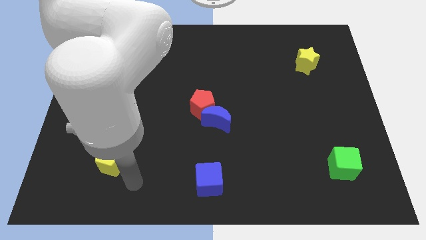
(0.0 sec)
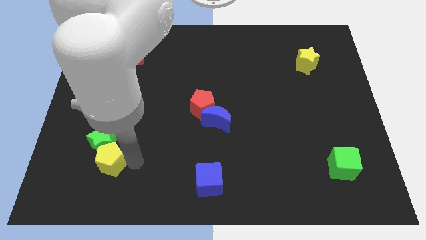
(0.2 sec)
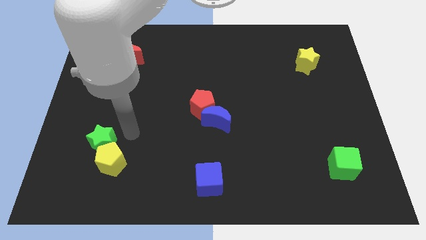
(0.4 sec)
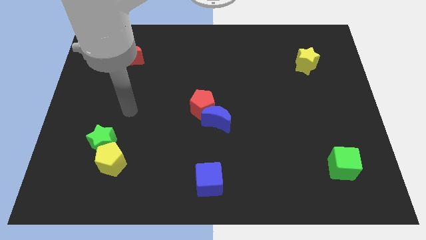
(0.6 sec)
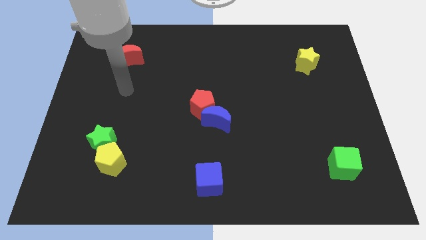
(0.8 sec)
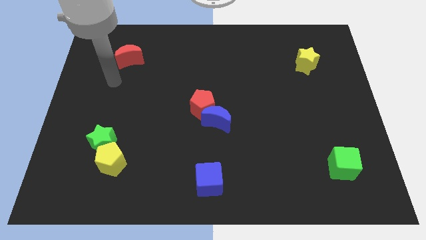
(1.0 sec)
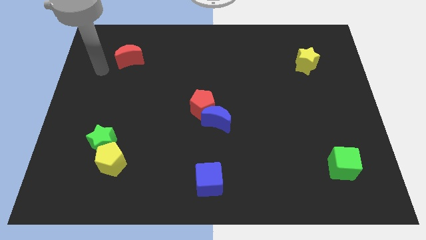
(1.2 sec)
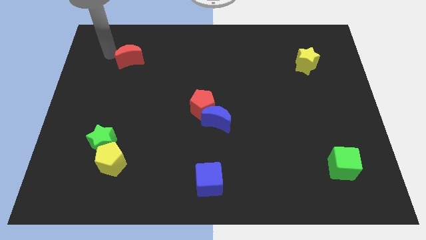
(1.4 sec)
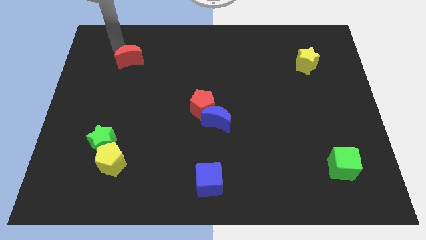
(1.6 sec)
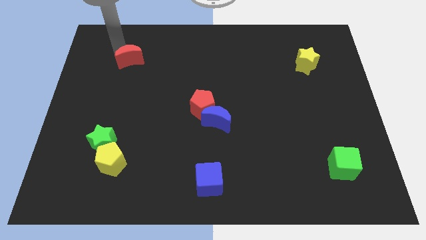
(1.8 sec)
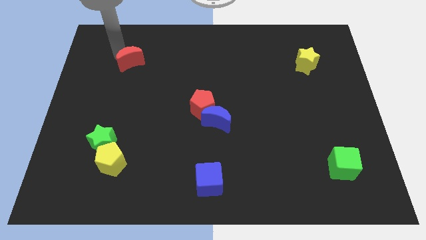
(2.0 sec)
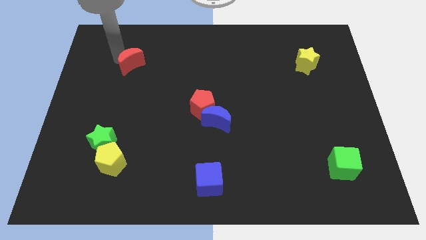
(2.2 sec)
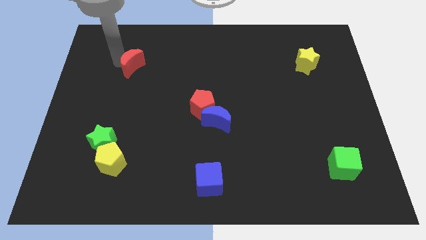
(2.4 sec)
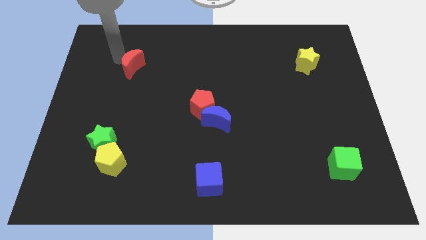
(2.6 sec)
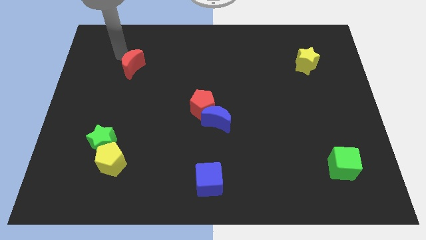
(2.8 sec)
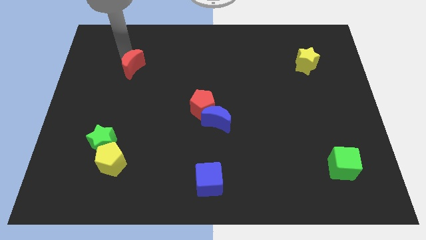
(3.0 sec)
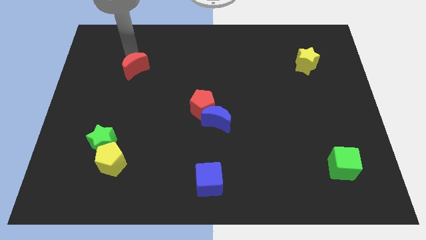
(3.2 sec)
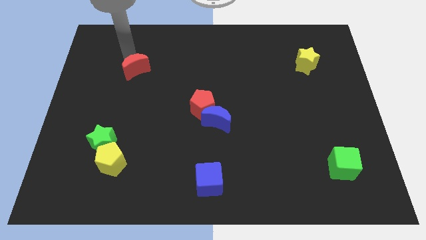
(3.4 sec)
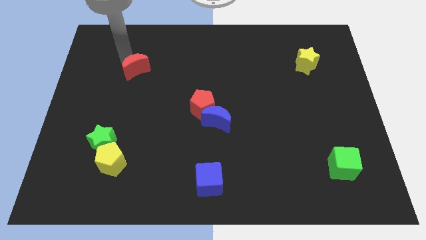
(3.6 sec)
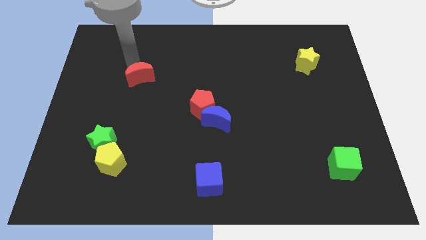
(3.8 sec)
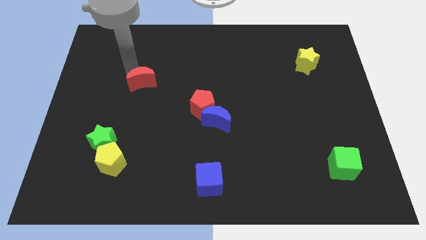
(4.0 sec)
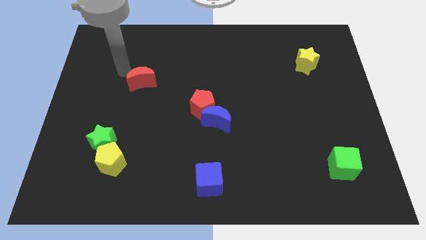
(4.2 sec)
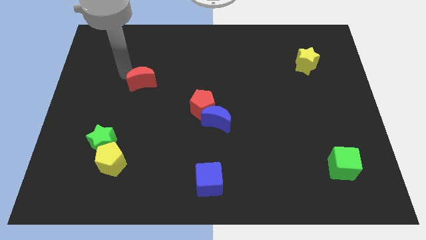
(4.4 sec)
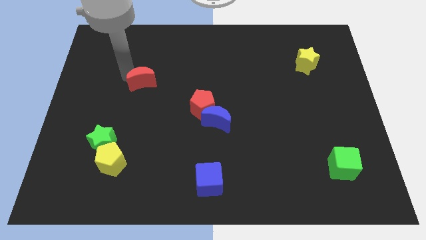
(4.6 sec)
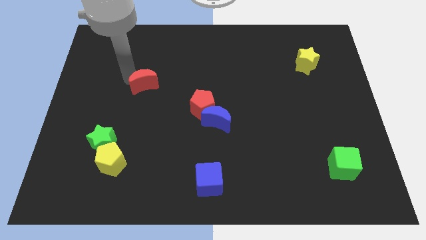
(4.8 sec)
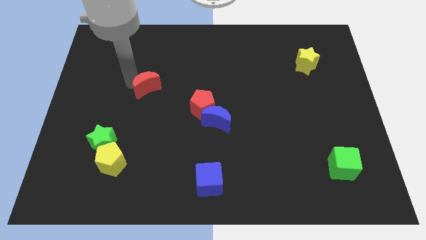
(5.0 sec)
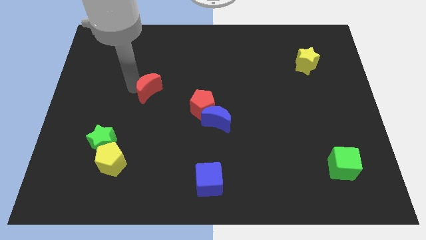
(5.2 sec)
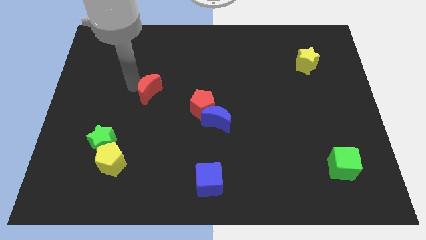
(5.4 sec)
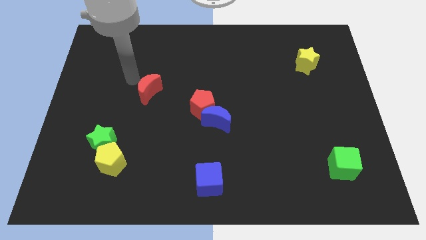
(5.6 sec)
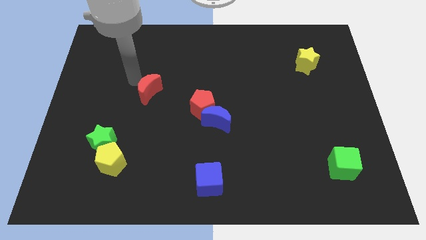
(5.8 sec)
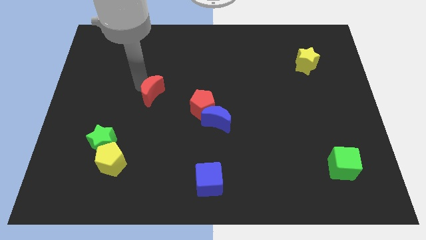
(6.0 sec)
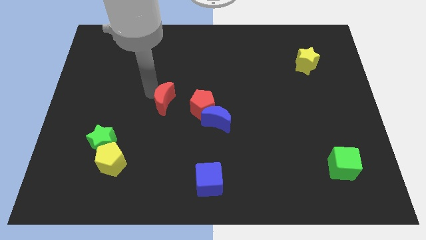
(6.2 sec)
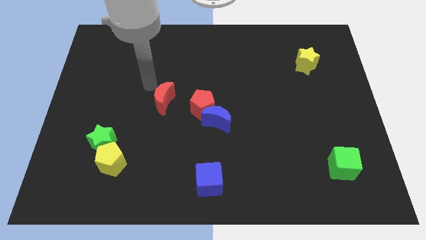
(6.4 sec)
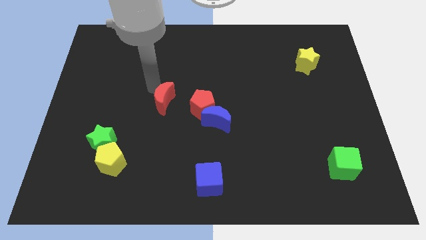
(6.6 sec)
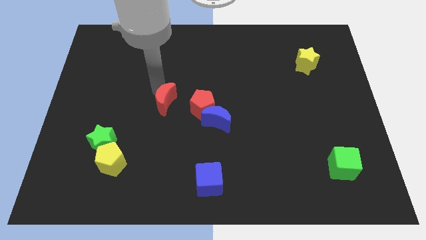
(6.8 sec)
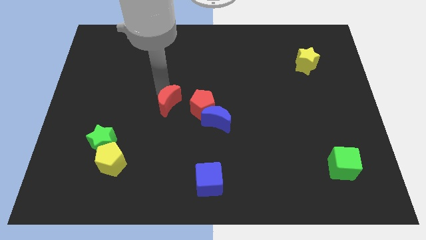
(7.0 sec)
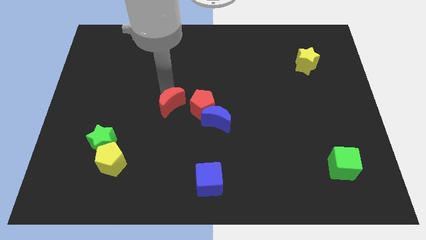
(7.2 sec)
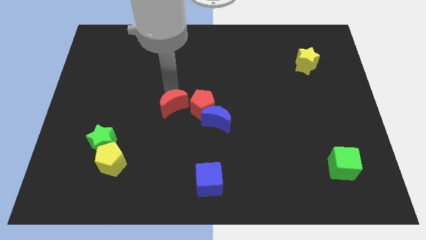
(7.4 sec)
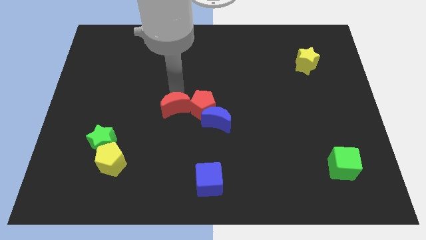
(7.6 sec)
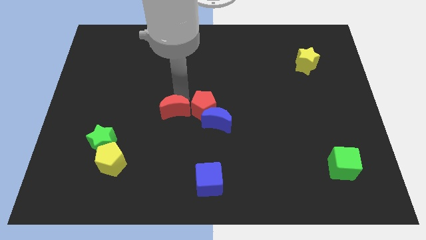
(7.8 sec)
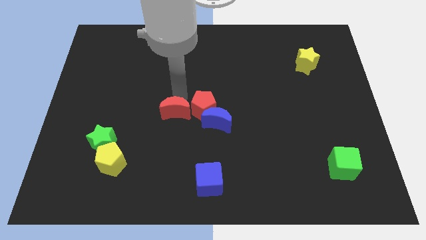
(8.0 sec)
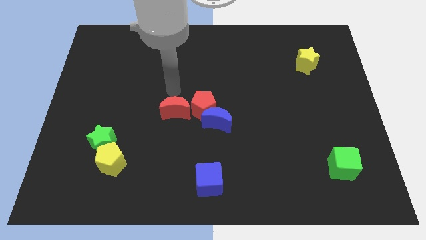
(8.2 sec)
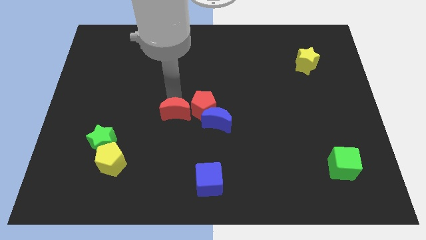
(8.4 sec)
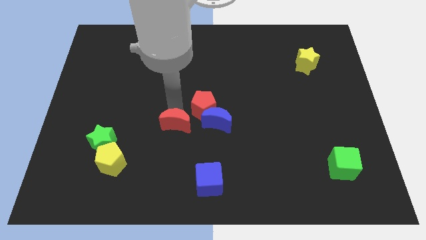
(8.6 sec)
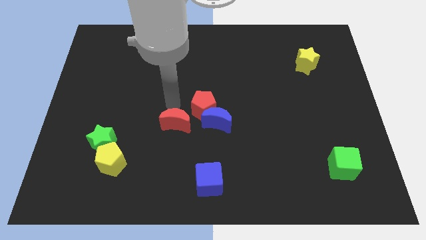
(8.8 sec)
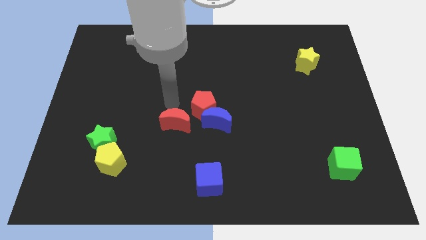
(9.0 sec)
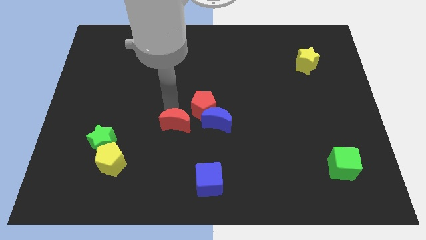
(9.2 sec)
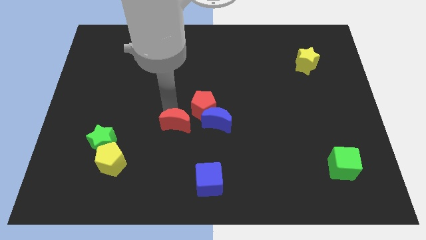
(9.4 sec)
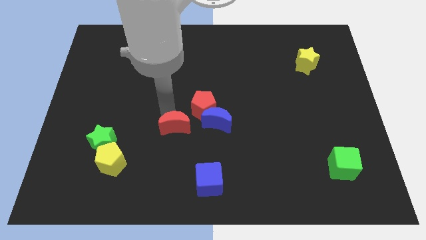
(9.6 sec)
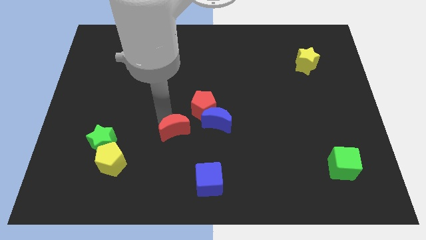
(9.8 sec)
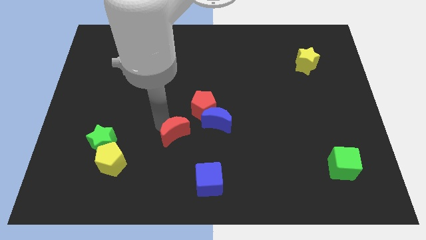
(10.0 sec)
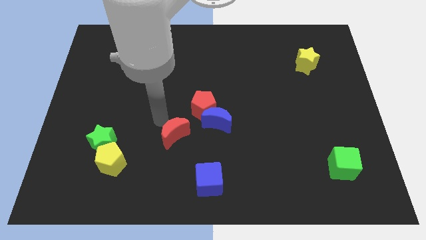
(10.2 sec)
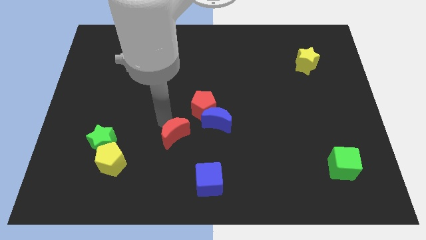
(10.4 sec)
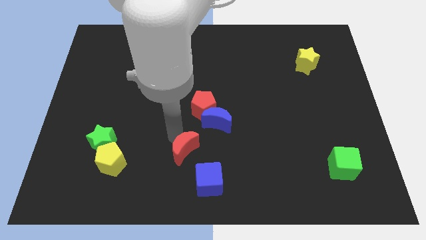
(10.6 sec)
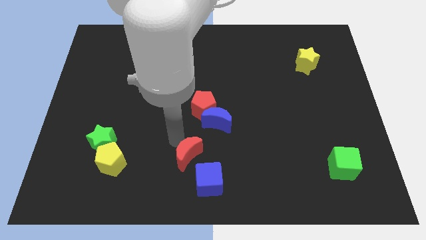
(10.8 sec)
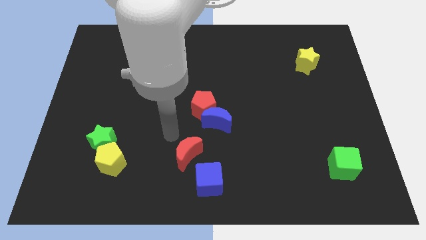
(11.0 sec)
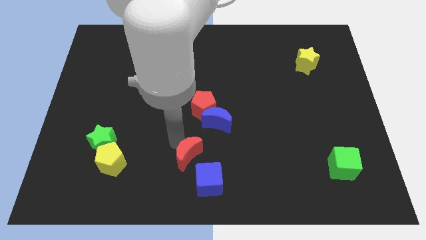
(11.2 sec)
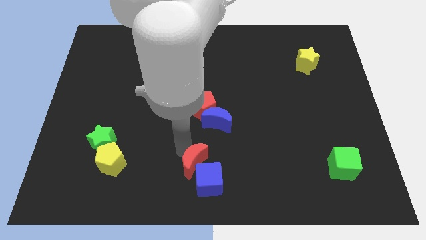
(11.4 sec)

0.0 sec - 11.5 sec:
move the red moon to the blue cube

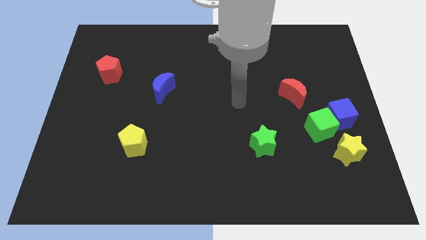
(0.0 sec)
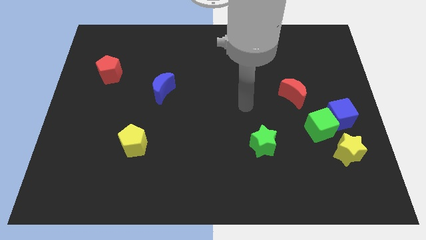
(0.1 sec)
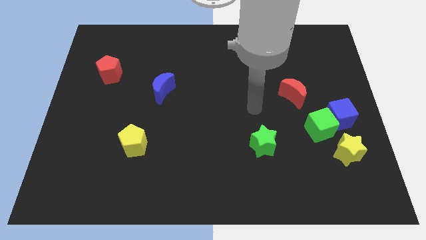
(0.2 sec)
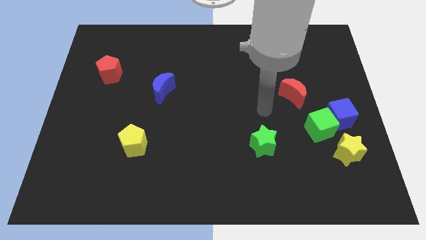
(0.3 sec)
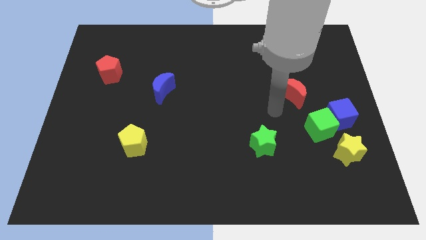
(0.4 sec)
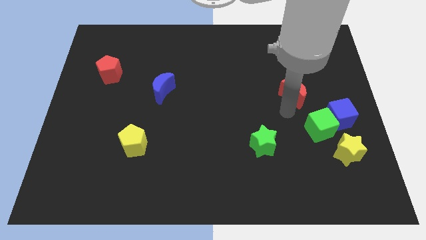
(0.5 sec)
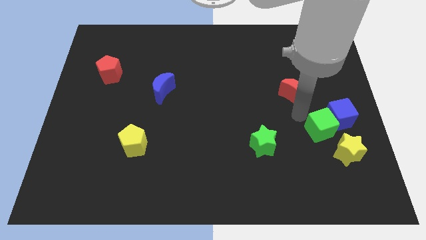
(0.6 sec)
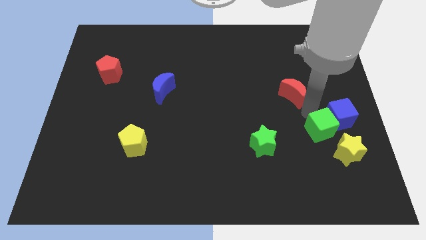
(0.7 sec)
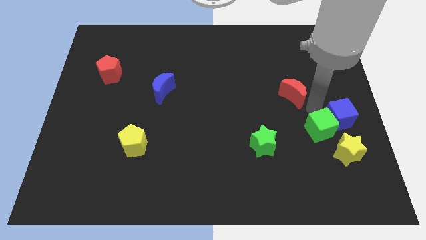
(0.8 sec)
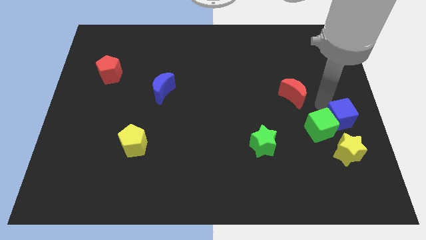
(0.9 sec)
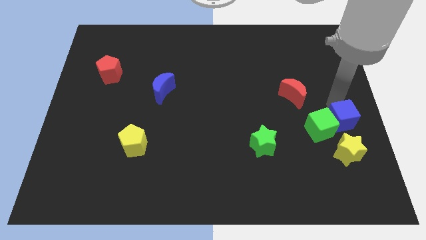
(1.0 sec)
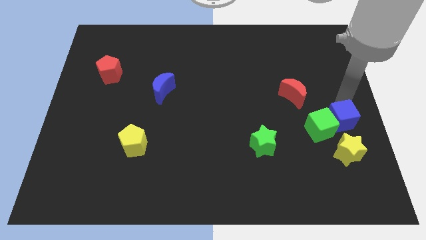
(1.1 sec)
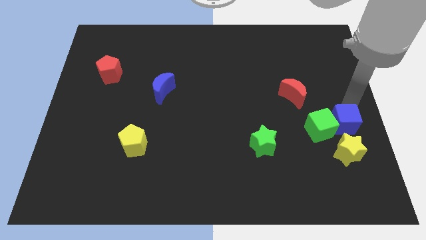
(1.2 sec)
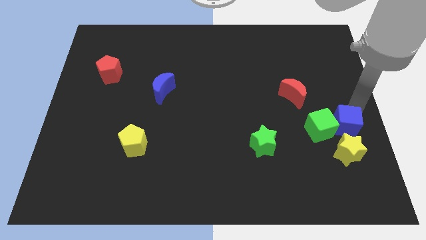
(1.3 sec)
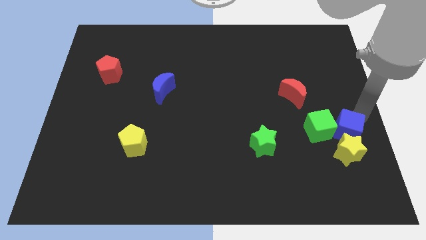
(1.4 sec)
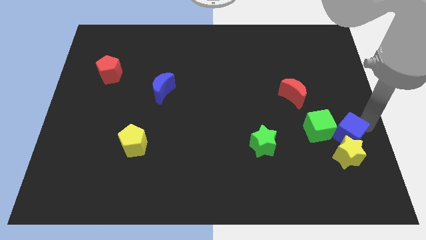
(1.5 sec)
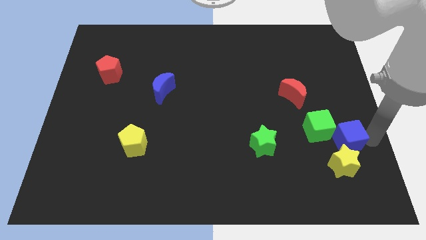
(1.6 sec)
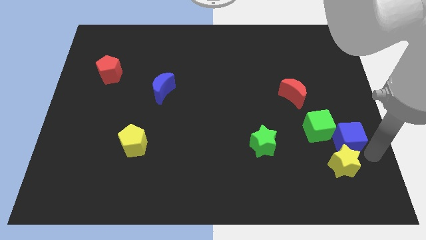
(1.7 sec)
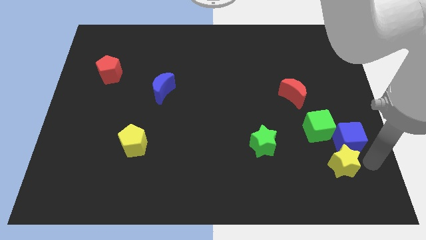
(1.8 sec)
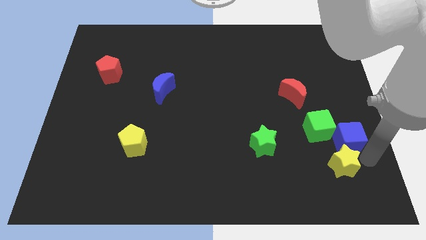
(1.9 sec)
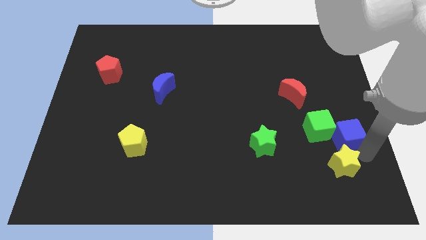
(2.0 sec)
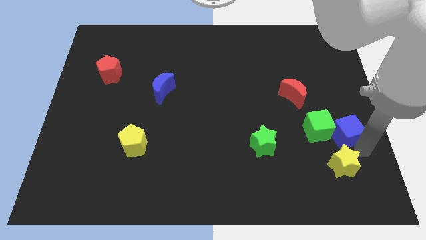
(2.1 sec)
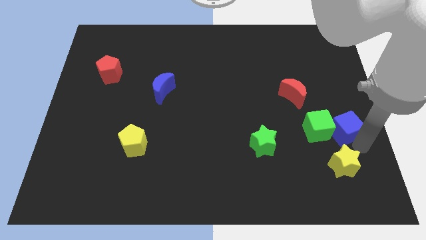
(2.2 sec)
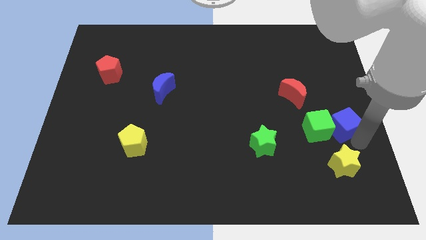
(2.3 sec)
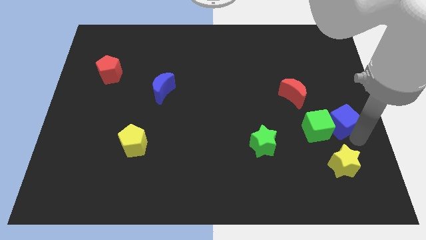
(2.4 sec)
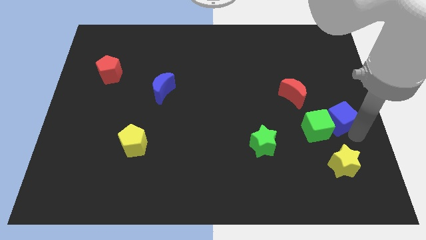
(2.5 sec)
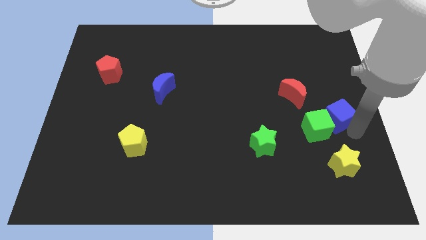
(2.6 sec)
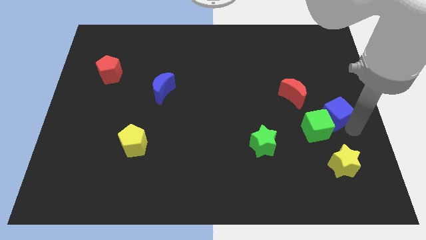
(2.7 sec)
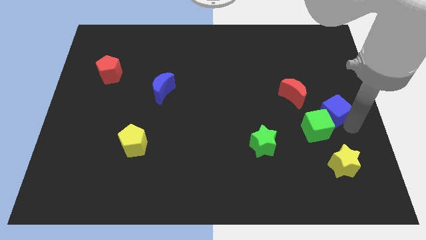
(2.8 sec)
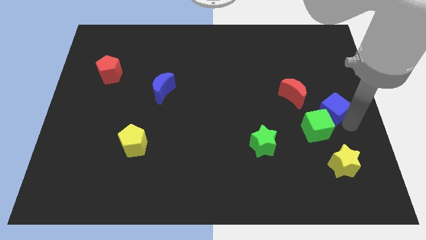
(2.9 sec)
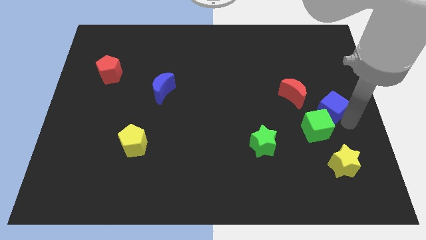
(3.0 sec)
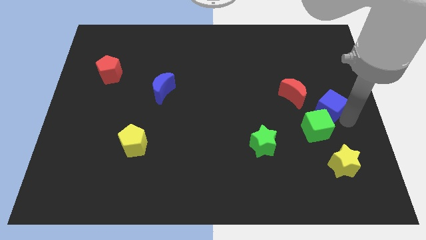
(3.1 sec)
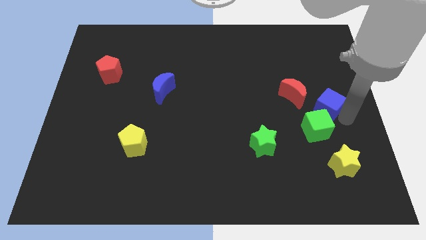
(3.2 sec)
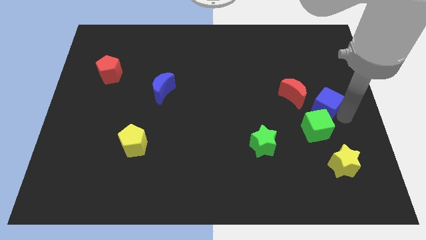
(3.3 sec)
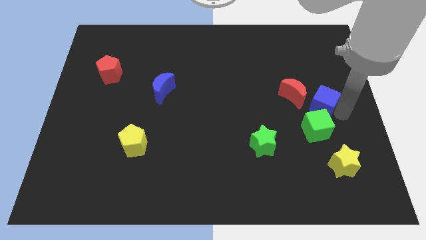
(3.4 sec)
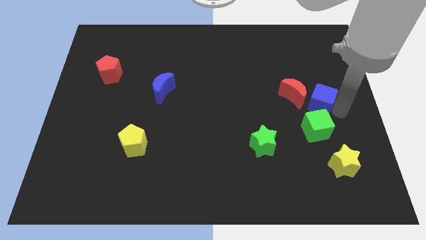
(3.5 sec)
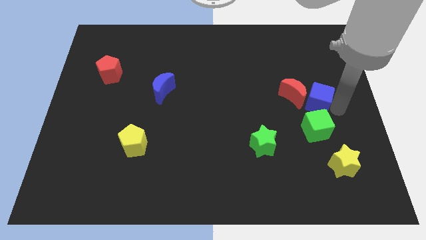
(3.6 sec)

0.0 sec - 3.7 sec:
slide the blue cube next to the red moon
